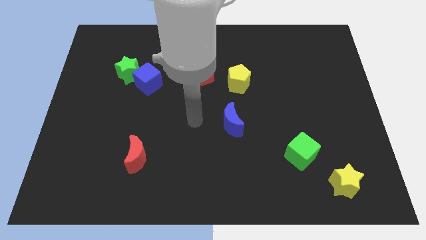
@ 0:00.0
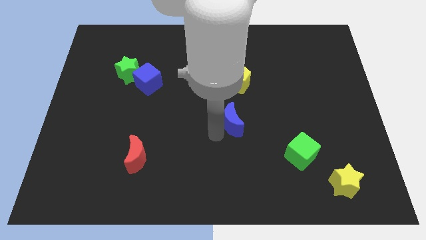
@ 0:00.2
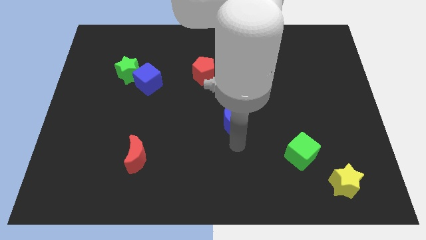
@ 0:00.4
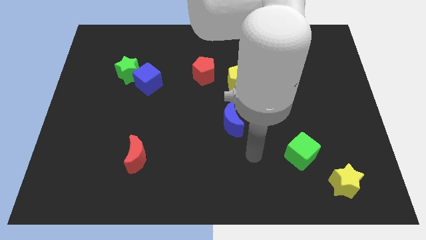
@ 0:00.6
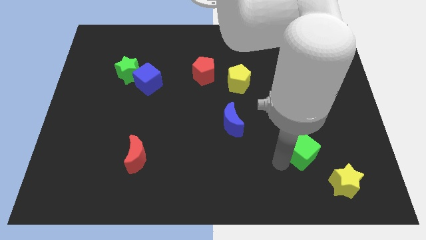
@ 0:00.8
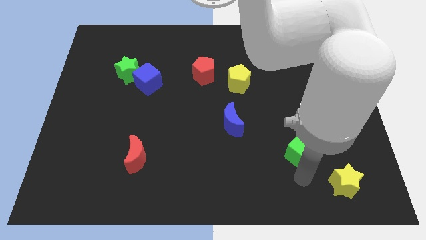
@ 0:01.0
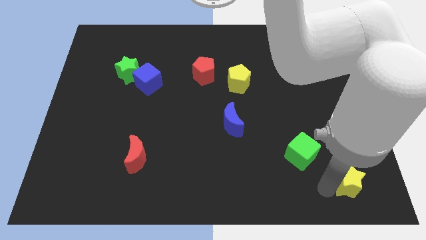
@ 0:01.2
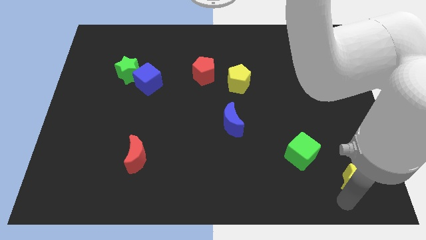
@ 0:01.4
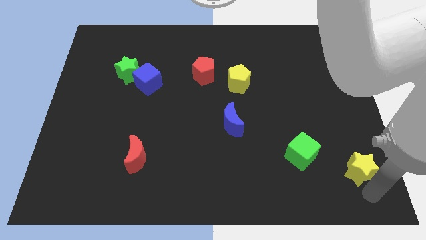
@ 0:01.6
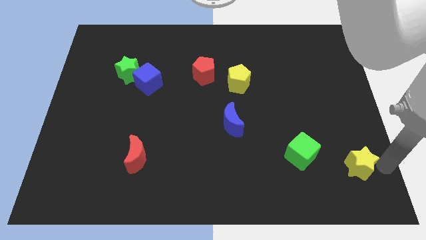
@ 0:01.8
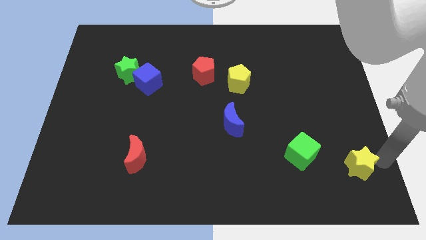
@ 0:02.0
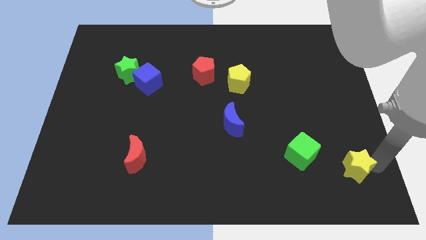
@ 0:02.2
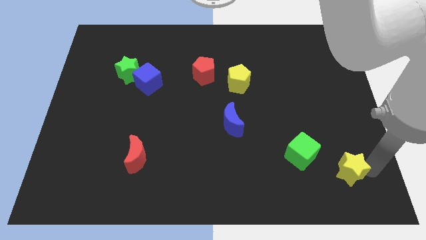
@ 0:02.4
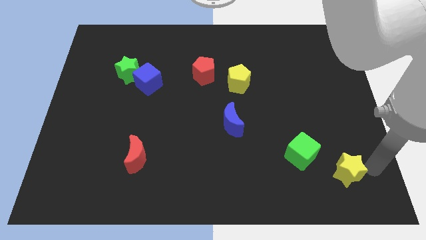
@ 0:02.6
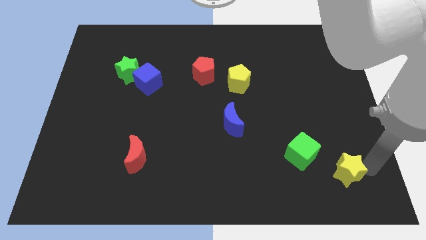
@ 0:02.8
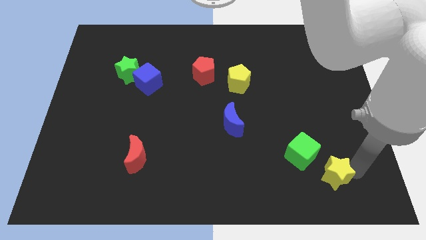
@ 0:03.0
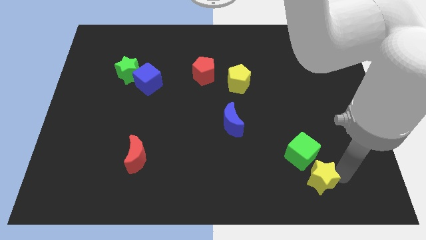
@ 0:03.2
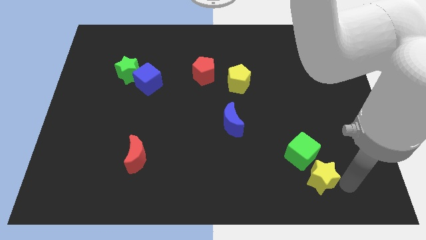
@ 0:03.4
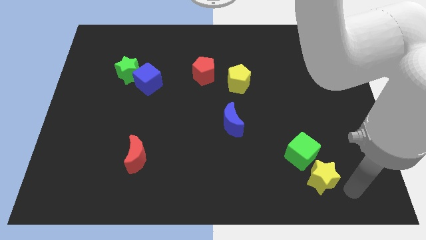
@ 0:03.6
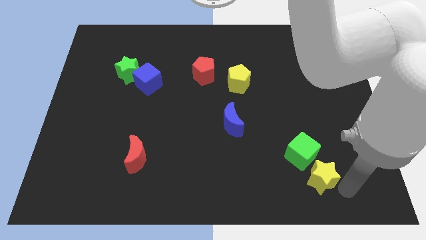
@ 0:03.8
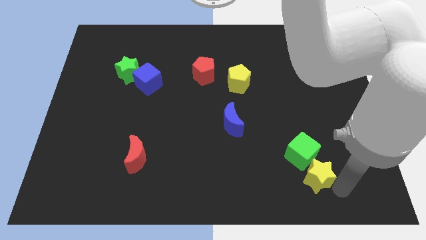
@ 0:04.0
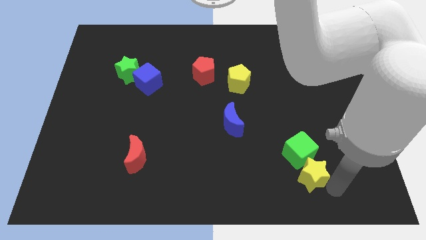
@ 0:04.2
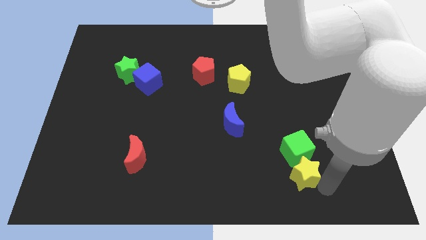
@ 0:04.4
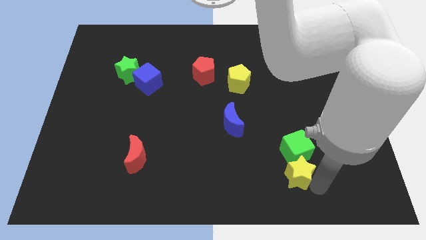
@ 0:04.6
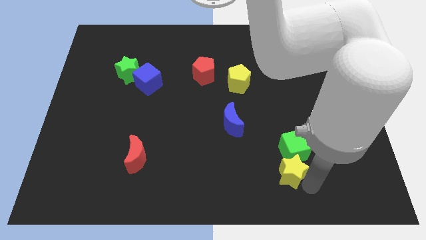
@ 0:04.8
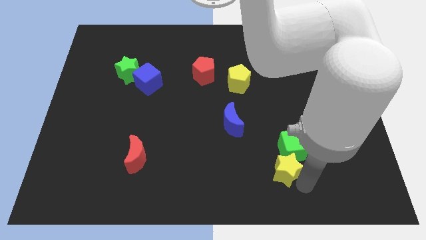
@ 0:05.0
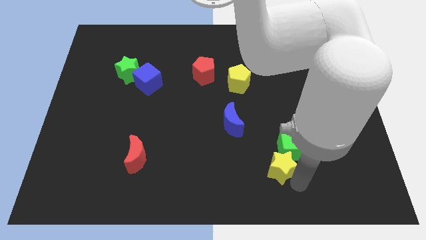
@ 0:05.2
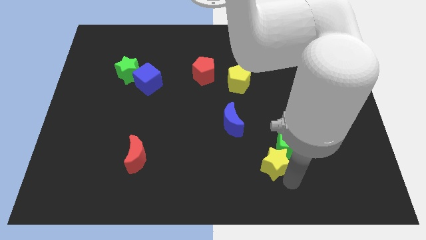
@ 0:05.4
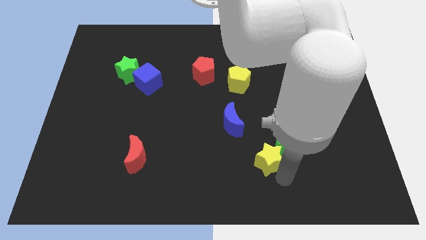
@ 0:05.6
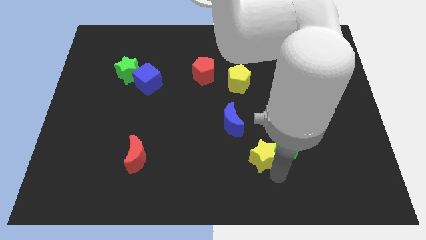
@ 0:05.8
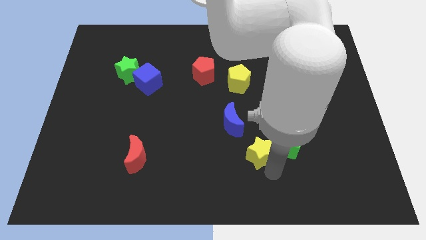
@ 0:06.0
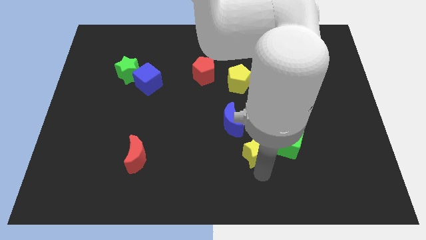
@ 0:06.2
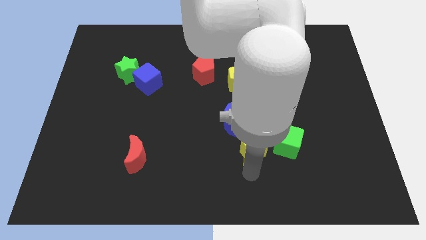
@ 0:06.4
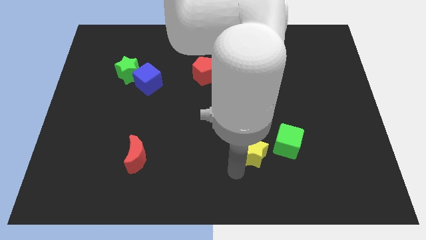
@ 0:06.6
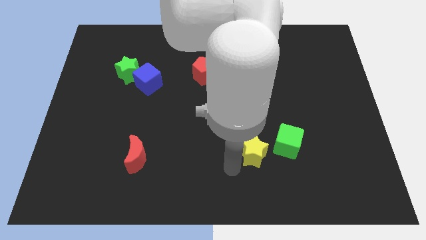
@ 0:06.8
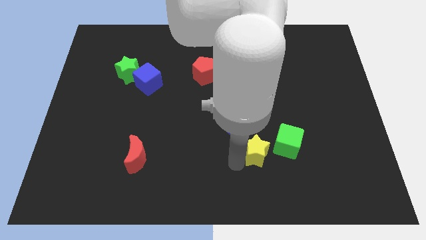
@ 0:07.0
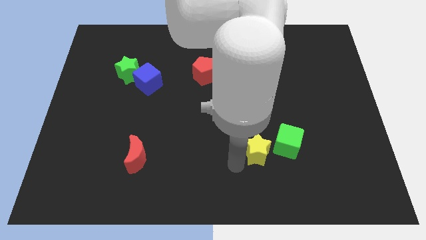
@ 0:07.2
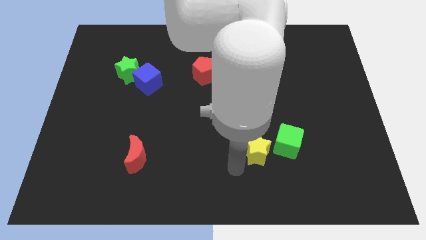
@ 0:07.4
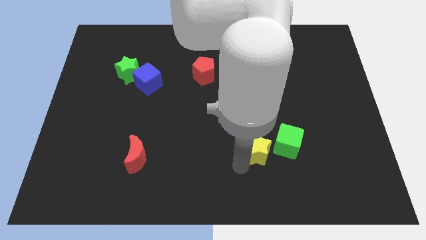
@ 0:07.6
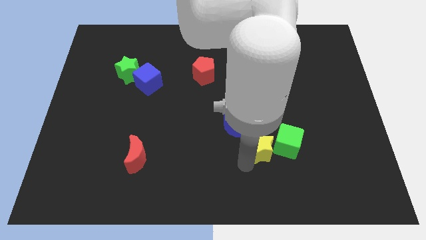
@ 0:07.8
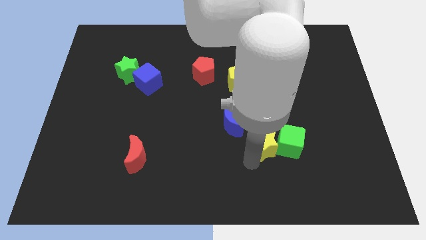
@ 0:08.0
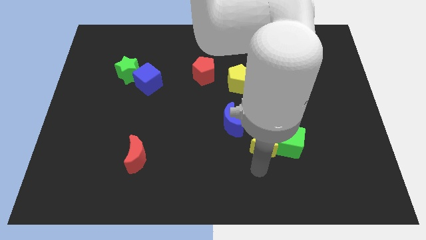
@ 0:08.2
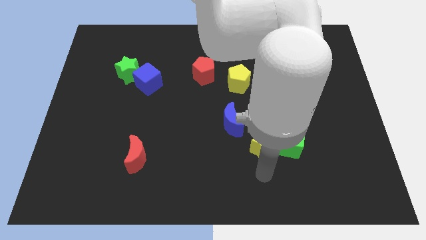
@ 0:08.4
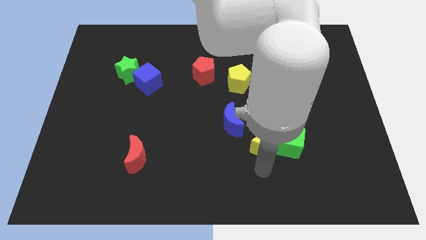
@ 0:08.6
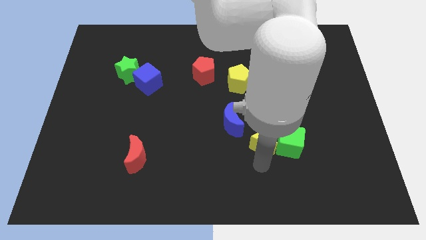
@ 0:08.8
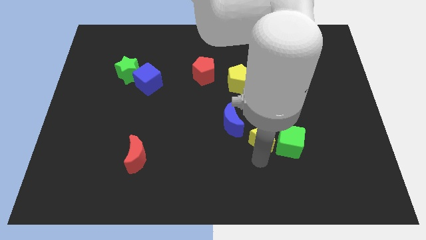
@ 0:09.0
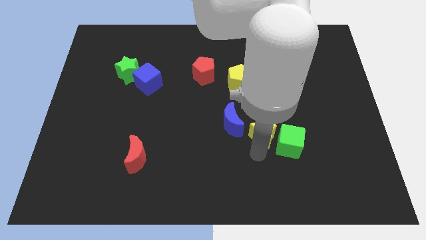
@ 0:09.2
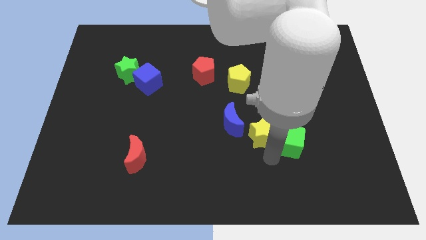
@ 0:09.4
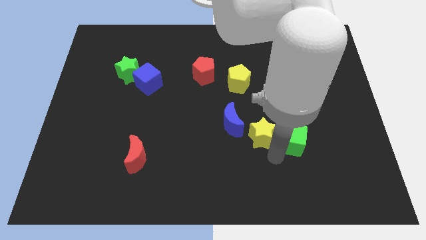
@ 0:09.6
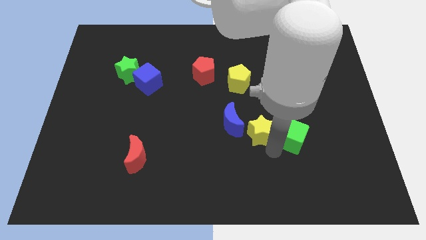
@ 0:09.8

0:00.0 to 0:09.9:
slide the yellow star upwards and to the left

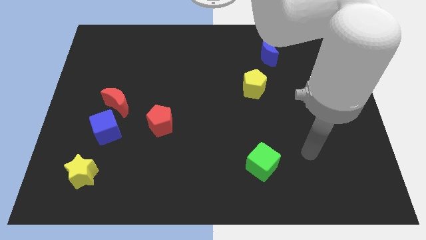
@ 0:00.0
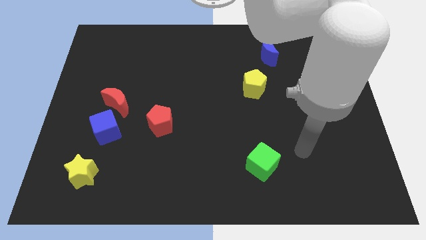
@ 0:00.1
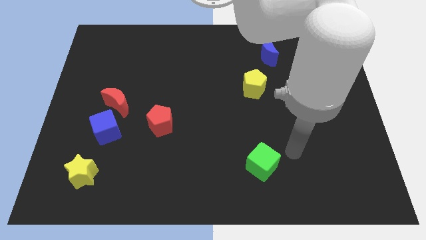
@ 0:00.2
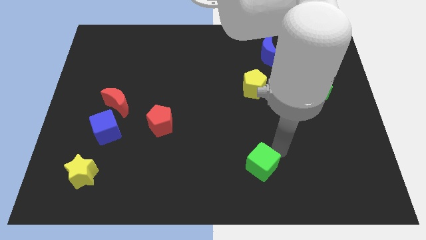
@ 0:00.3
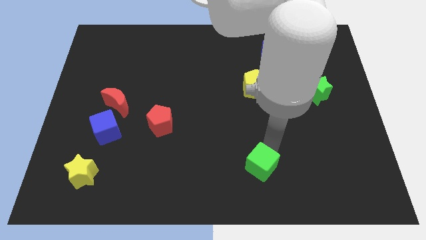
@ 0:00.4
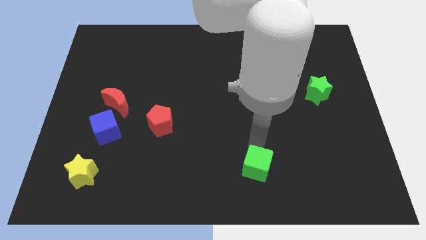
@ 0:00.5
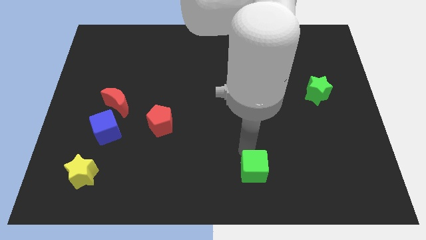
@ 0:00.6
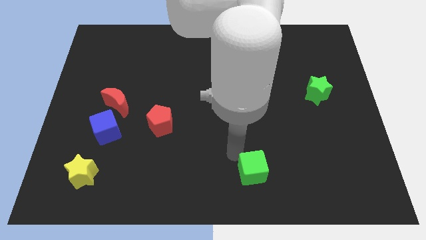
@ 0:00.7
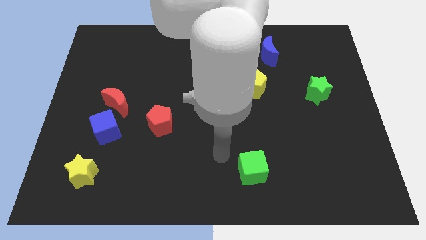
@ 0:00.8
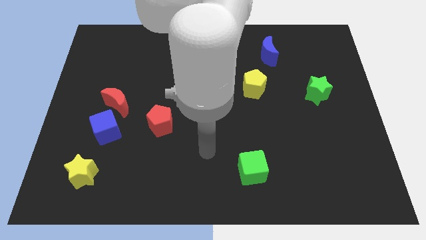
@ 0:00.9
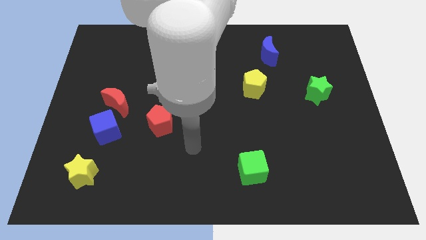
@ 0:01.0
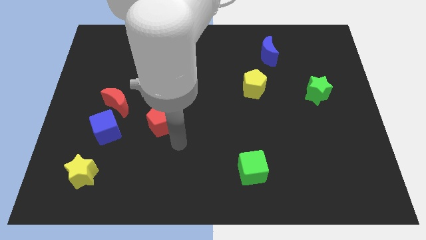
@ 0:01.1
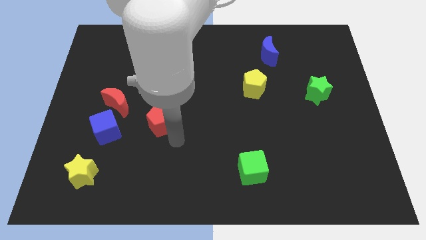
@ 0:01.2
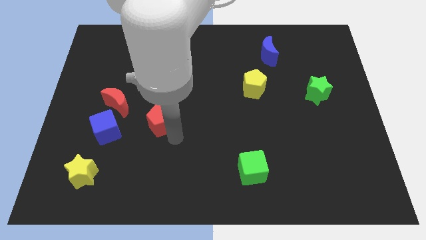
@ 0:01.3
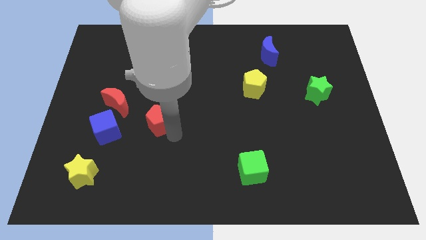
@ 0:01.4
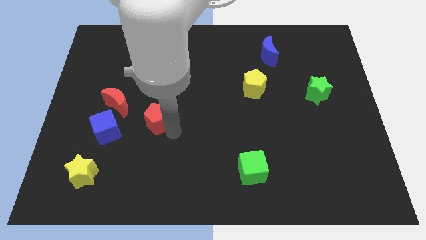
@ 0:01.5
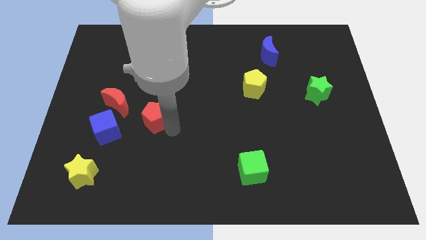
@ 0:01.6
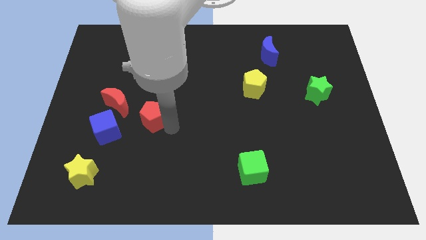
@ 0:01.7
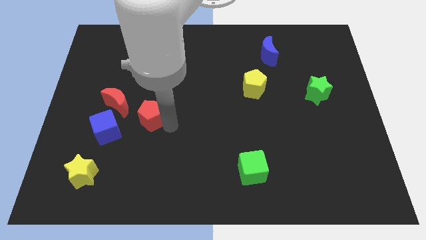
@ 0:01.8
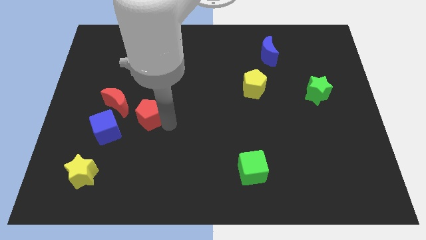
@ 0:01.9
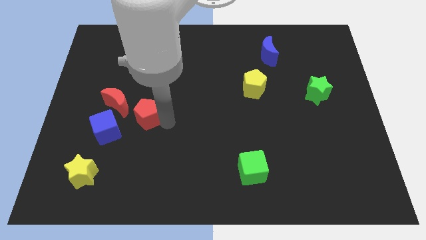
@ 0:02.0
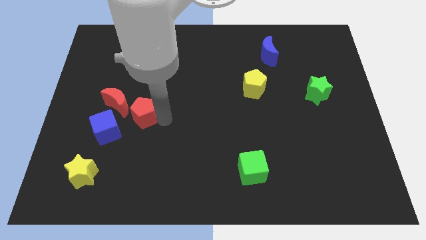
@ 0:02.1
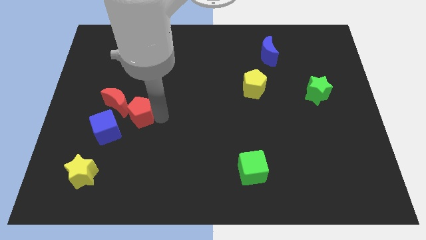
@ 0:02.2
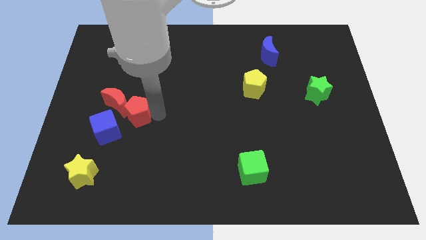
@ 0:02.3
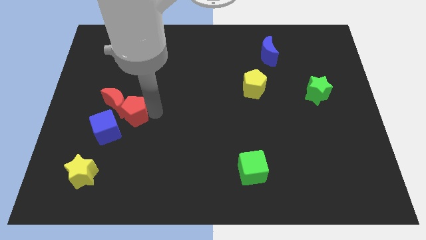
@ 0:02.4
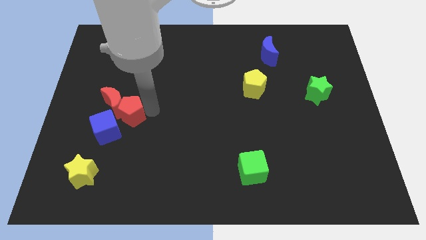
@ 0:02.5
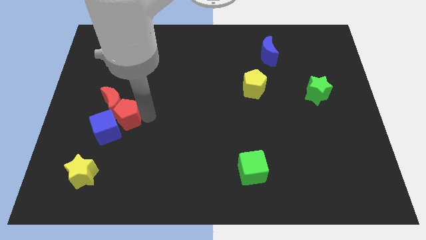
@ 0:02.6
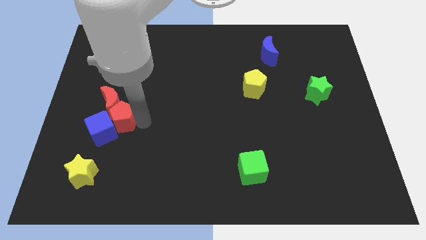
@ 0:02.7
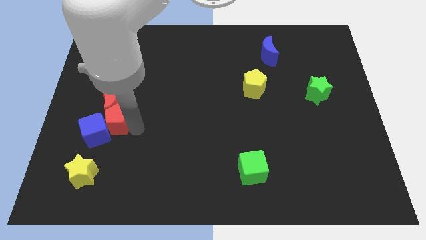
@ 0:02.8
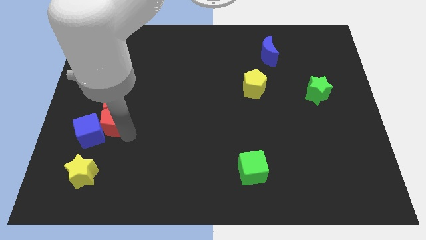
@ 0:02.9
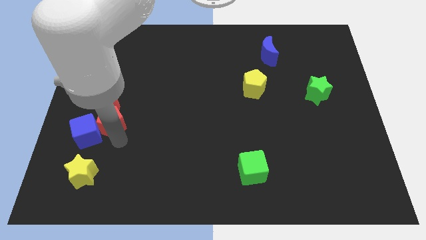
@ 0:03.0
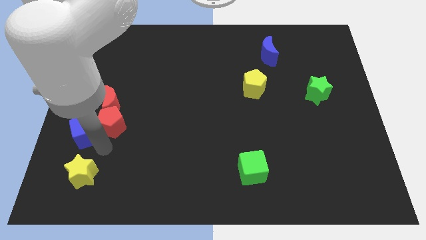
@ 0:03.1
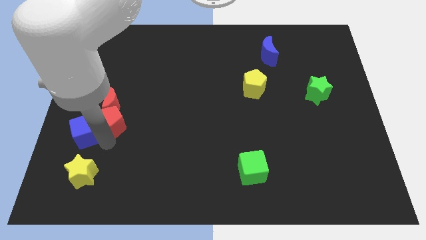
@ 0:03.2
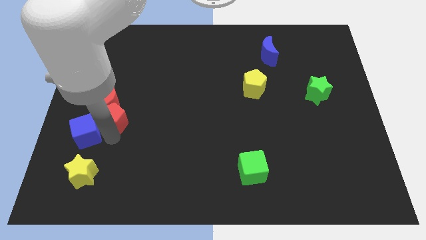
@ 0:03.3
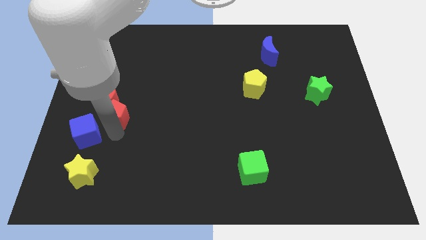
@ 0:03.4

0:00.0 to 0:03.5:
move the red pentagon upwards and left diagonally a little bit
